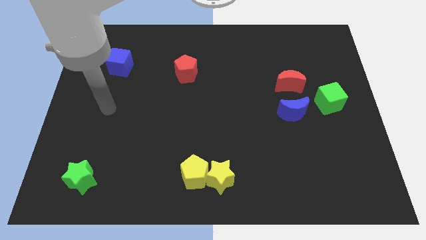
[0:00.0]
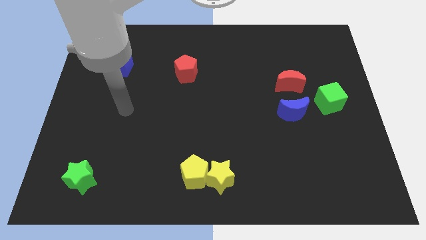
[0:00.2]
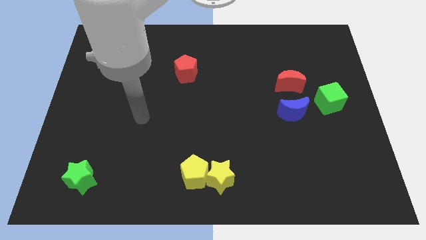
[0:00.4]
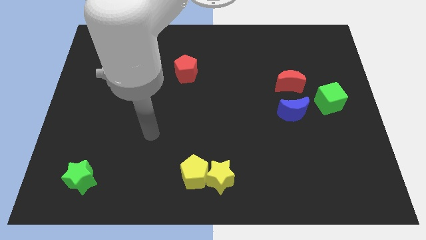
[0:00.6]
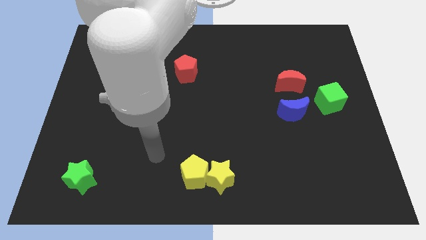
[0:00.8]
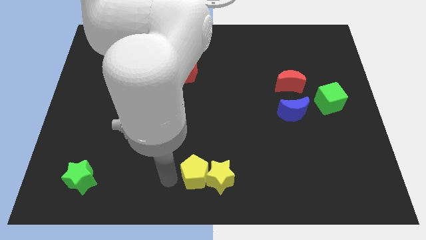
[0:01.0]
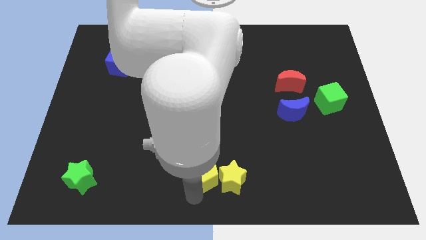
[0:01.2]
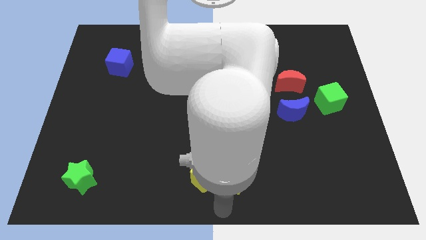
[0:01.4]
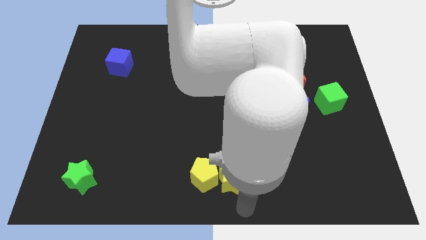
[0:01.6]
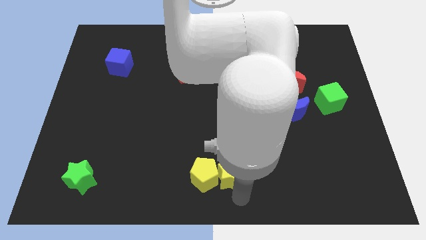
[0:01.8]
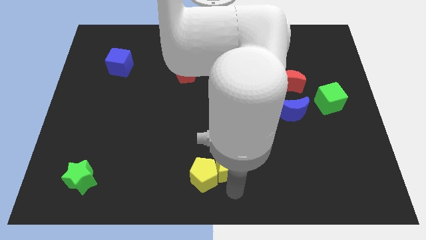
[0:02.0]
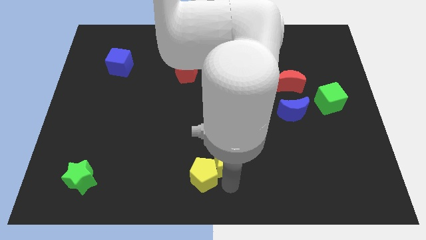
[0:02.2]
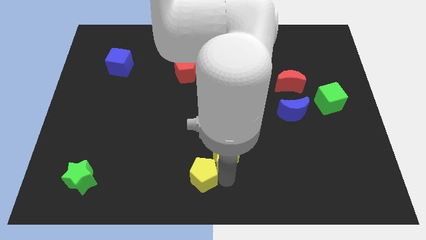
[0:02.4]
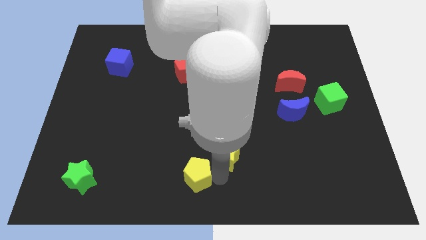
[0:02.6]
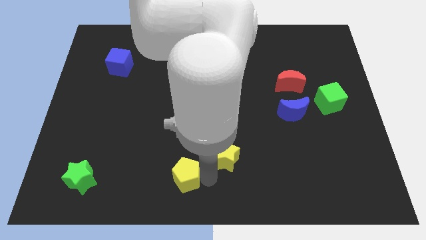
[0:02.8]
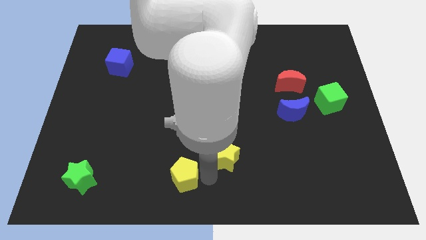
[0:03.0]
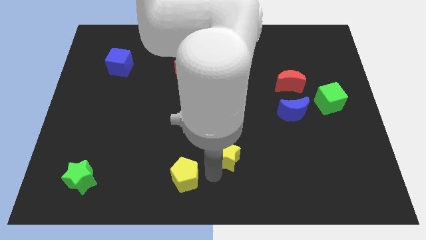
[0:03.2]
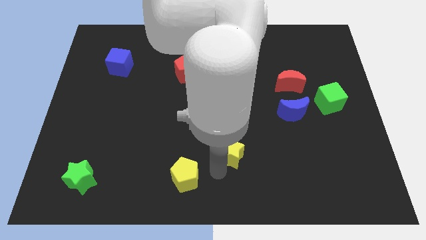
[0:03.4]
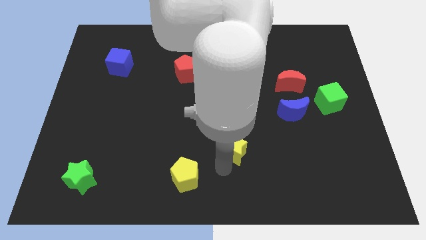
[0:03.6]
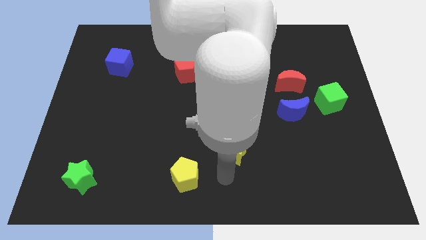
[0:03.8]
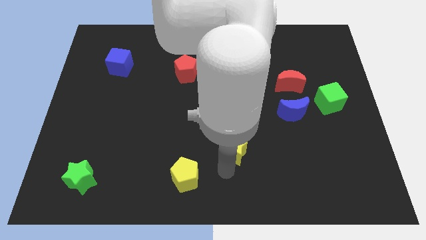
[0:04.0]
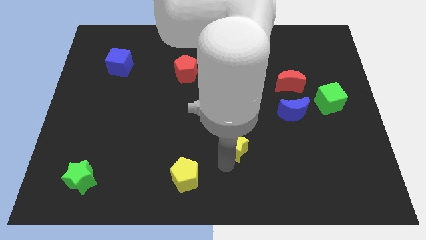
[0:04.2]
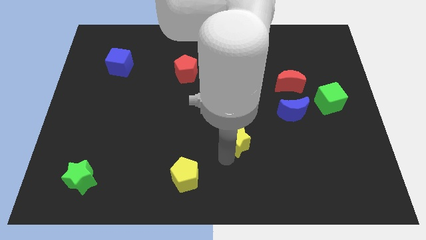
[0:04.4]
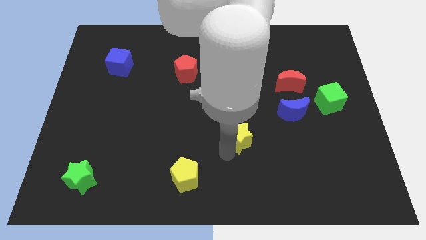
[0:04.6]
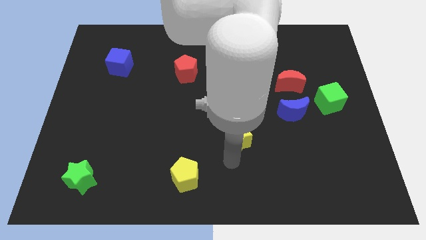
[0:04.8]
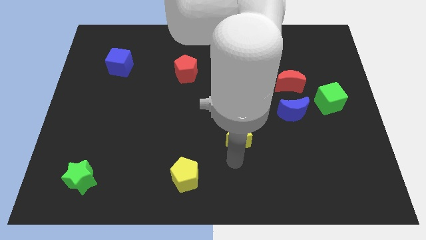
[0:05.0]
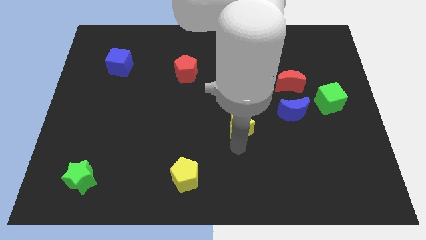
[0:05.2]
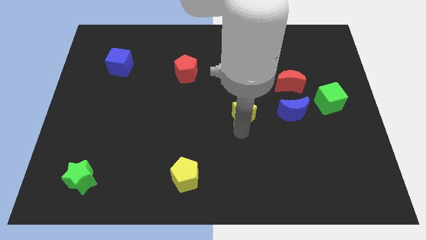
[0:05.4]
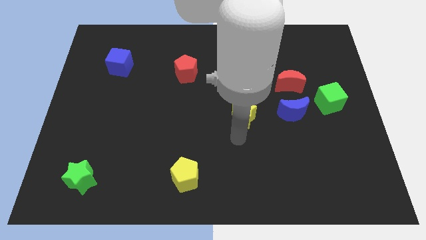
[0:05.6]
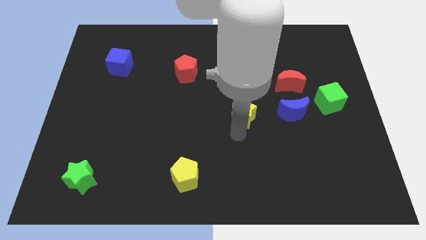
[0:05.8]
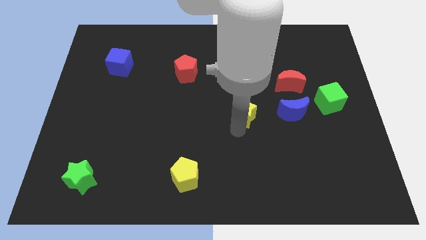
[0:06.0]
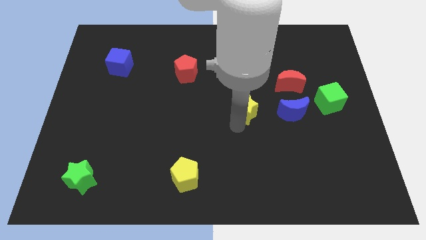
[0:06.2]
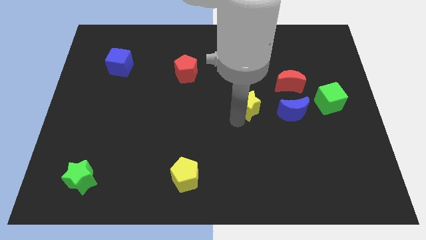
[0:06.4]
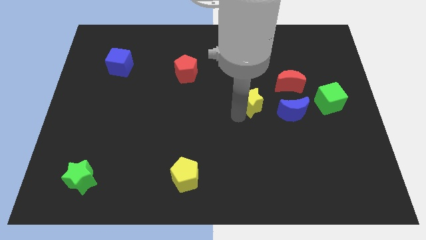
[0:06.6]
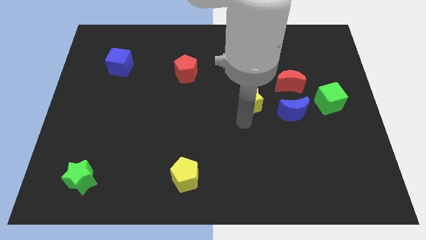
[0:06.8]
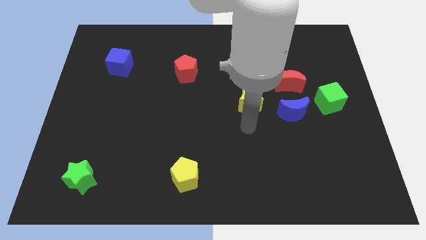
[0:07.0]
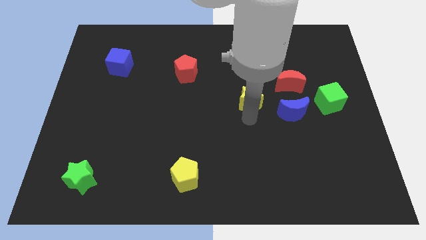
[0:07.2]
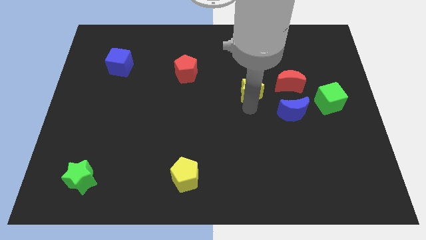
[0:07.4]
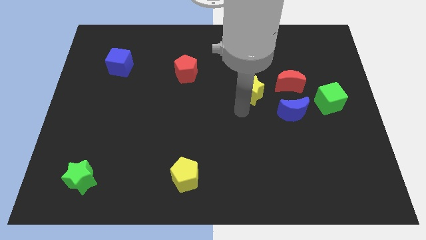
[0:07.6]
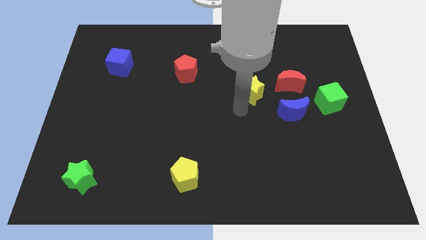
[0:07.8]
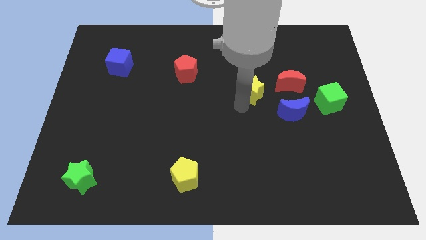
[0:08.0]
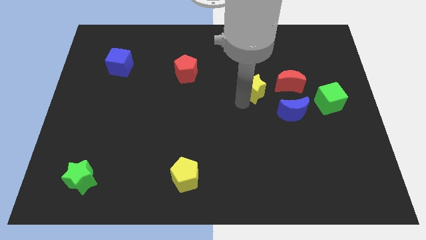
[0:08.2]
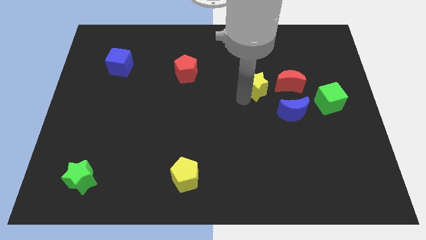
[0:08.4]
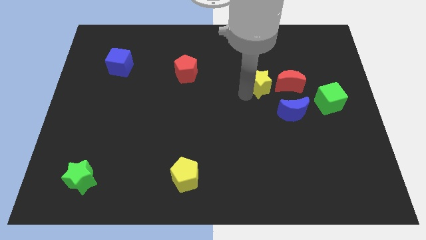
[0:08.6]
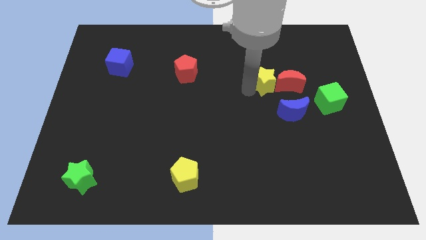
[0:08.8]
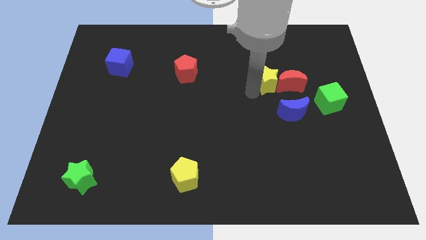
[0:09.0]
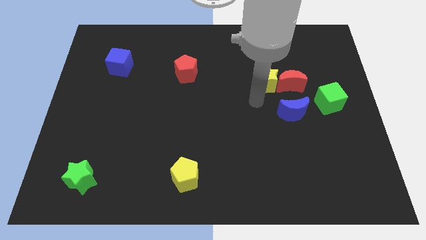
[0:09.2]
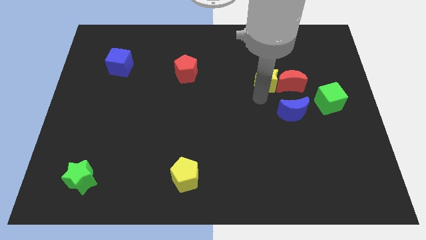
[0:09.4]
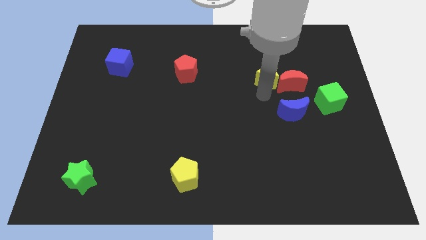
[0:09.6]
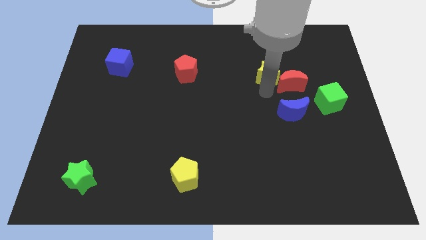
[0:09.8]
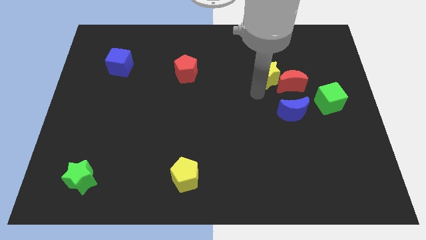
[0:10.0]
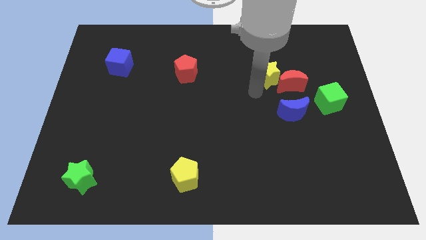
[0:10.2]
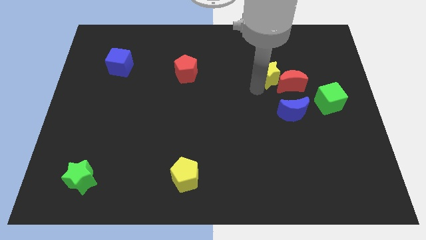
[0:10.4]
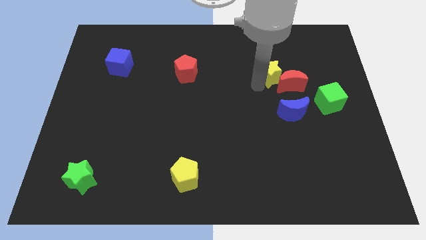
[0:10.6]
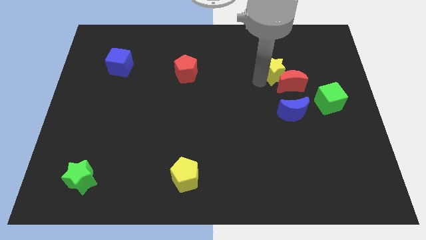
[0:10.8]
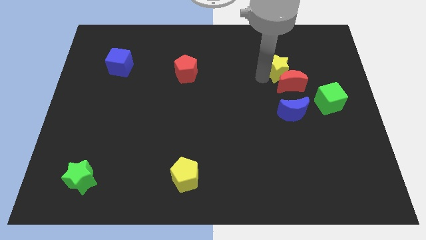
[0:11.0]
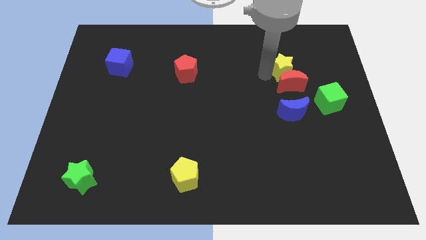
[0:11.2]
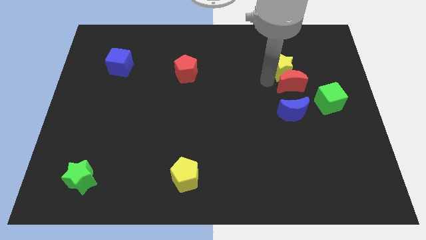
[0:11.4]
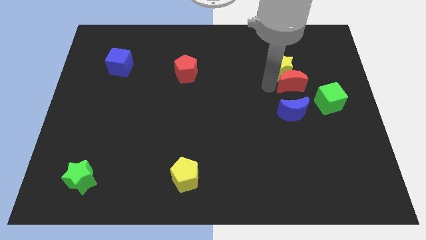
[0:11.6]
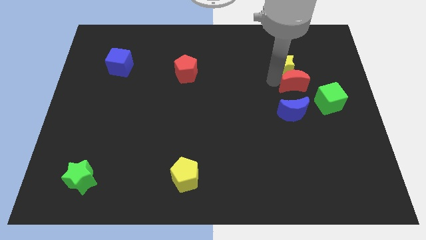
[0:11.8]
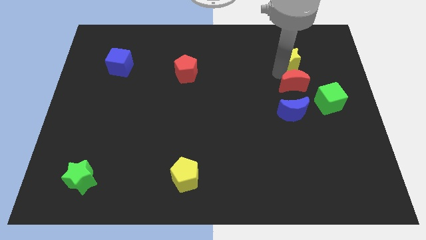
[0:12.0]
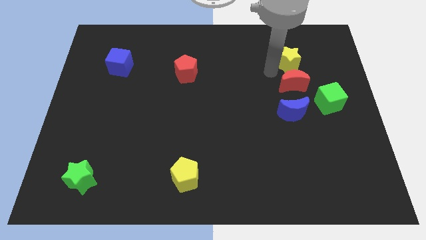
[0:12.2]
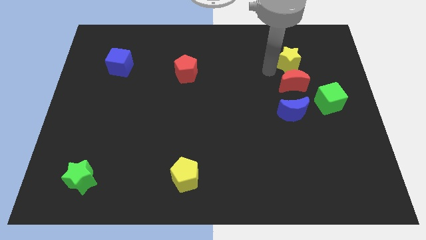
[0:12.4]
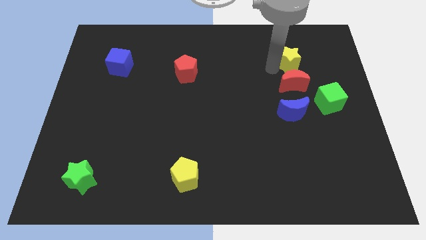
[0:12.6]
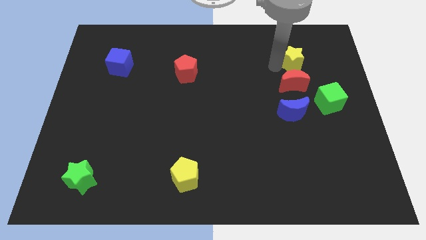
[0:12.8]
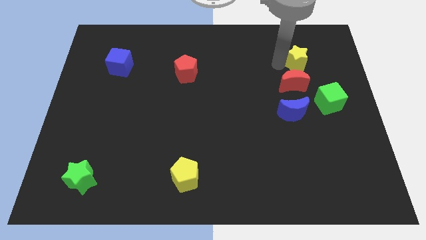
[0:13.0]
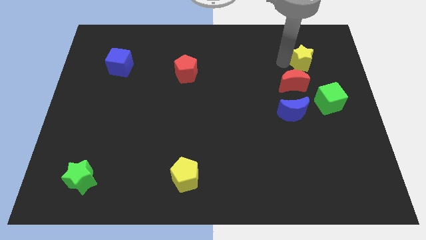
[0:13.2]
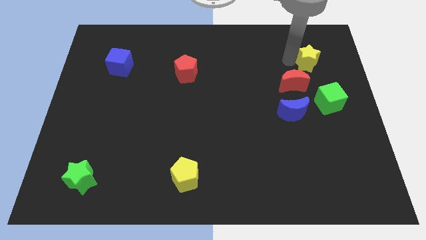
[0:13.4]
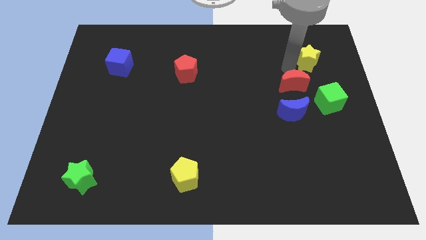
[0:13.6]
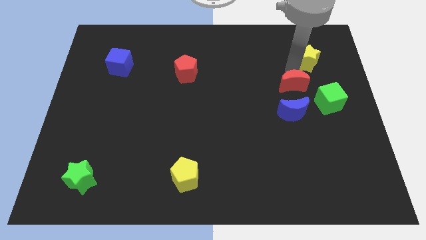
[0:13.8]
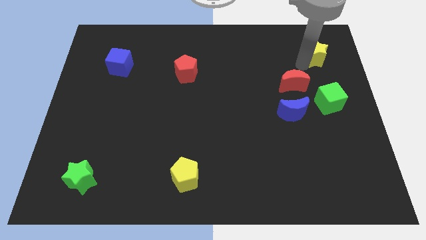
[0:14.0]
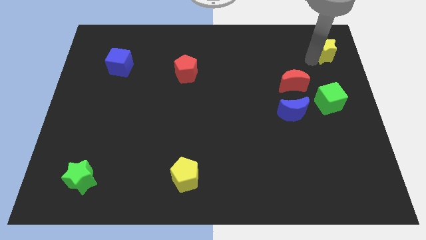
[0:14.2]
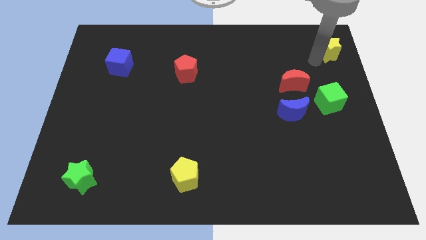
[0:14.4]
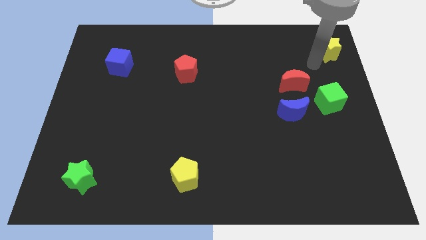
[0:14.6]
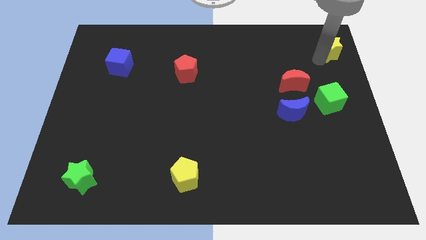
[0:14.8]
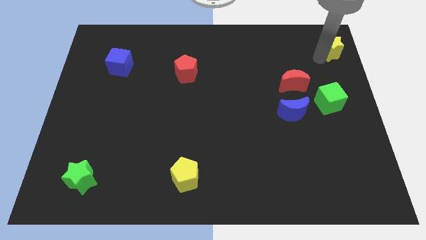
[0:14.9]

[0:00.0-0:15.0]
slide the yellow star to the upper right corner
